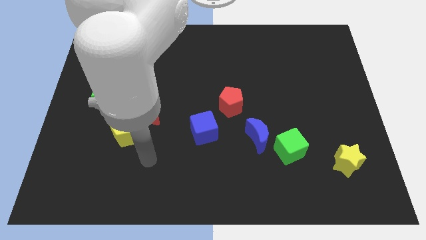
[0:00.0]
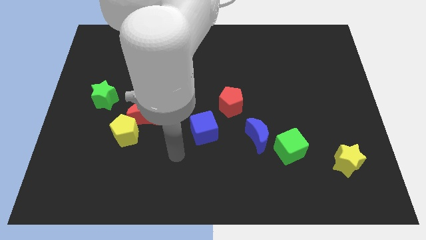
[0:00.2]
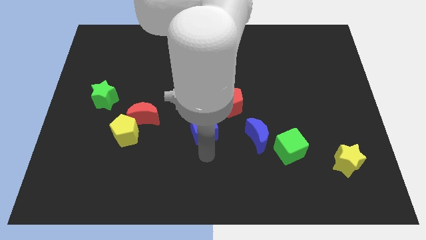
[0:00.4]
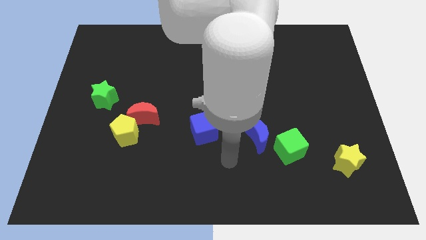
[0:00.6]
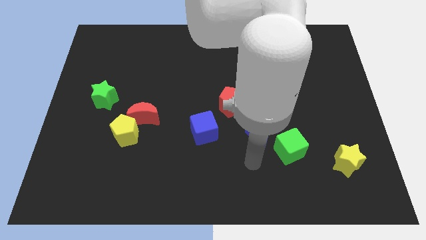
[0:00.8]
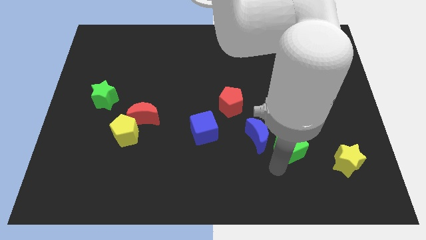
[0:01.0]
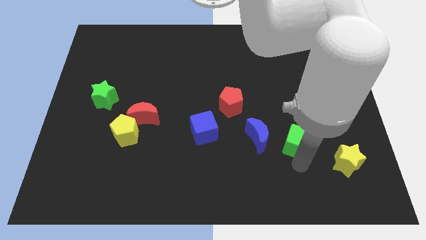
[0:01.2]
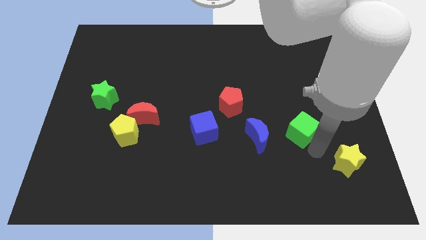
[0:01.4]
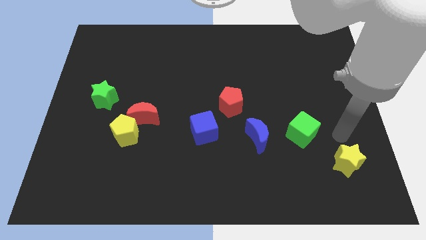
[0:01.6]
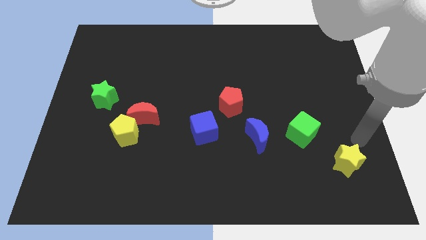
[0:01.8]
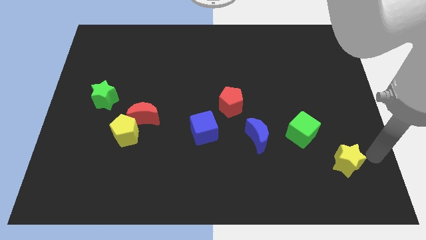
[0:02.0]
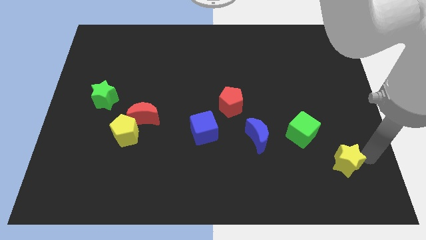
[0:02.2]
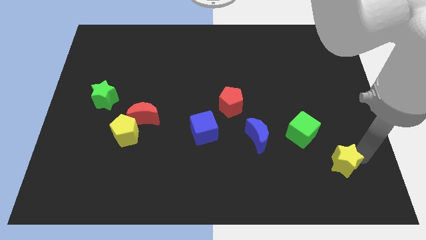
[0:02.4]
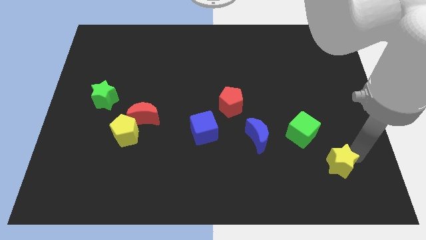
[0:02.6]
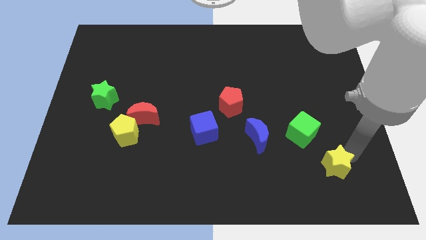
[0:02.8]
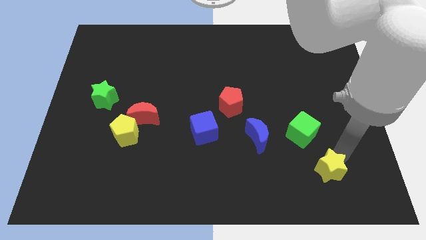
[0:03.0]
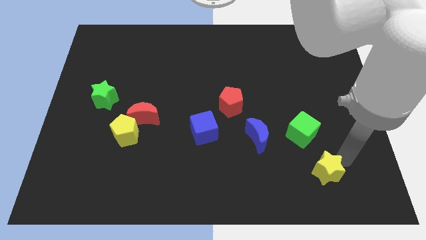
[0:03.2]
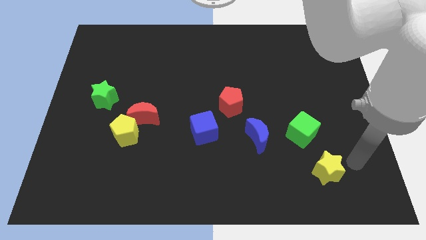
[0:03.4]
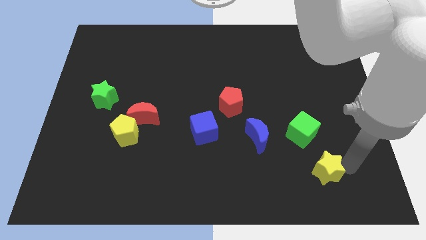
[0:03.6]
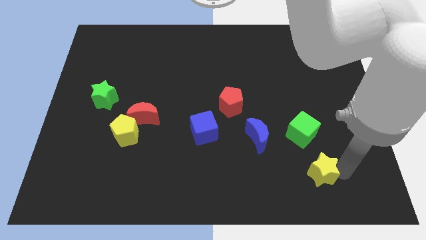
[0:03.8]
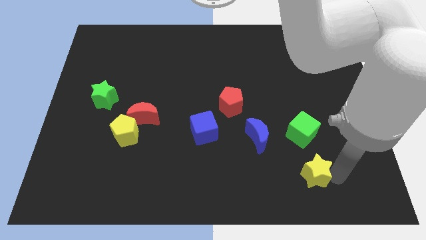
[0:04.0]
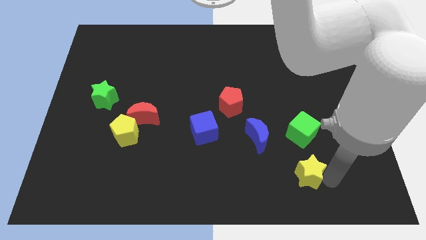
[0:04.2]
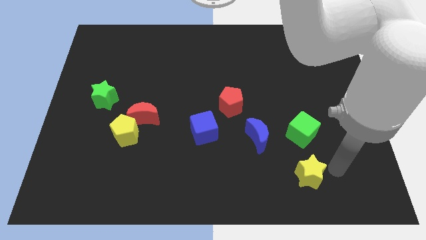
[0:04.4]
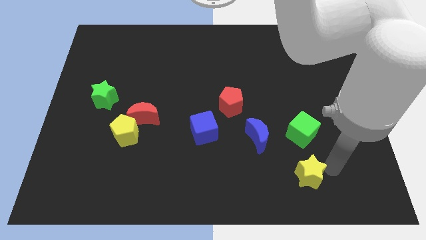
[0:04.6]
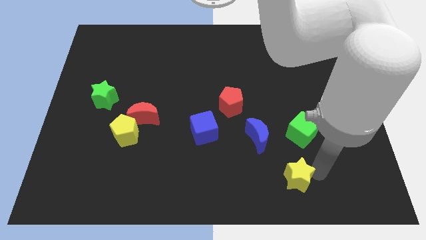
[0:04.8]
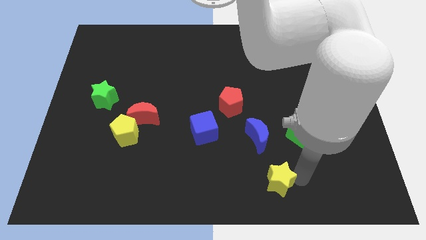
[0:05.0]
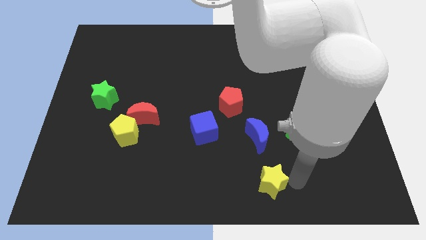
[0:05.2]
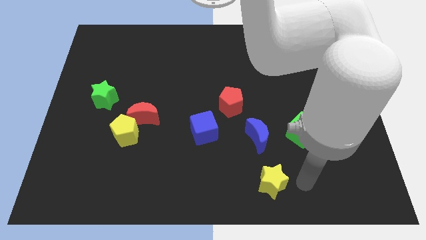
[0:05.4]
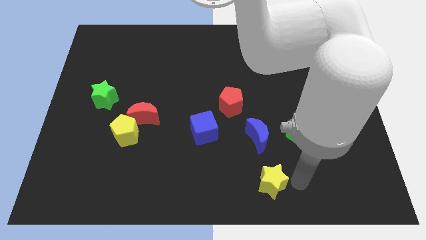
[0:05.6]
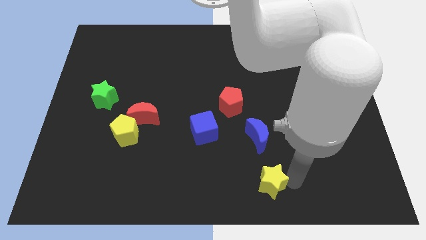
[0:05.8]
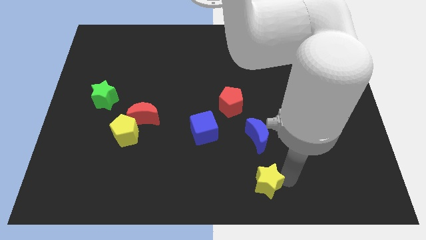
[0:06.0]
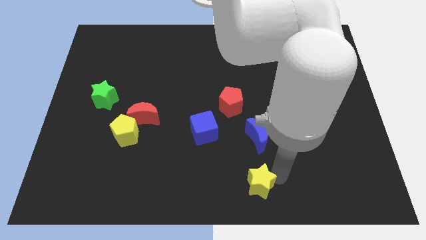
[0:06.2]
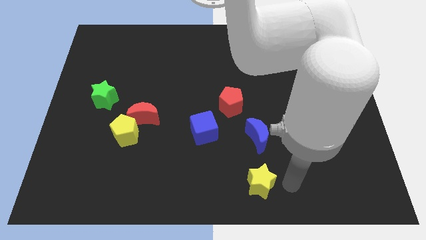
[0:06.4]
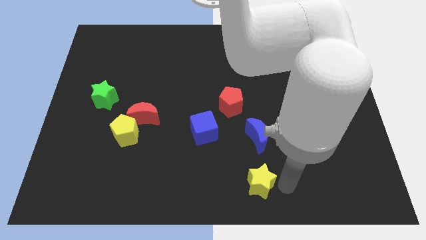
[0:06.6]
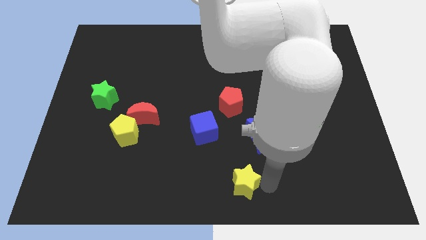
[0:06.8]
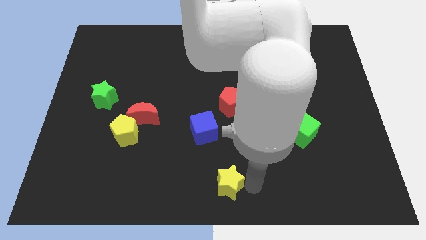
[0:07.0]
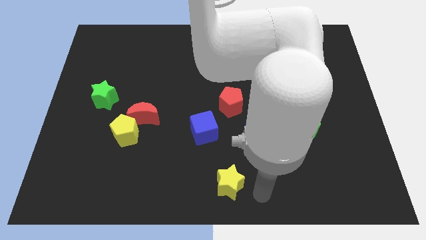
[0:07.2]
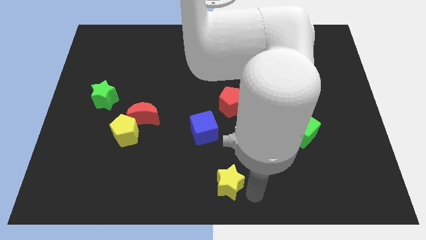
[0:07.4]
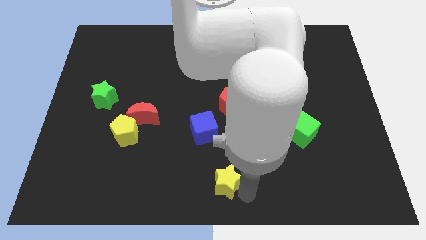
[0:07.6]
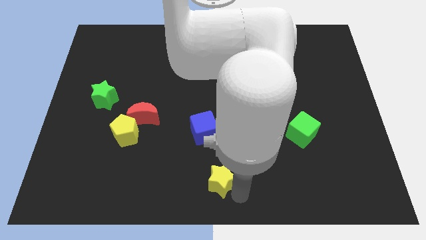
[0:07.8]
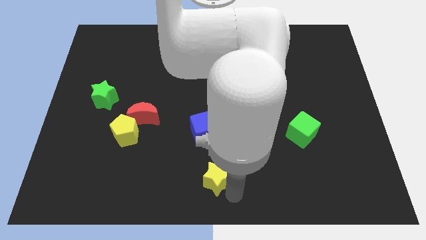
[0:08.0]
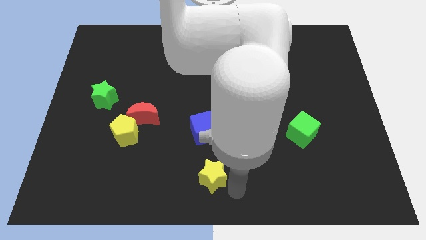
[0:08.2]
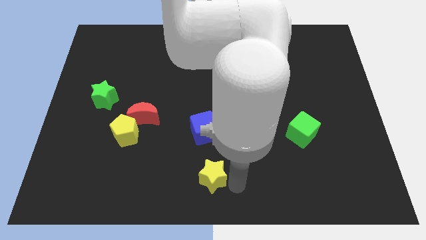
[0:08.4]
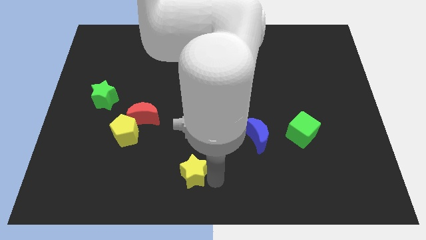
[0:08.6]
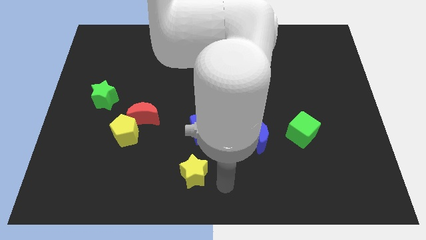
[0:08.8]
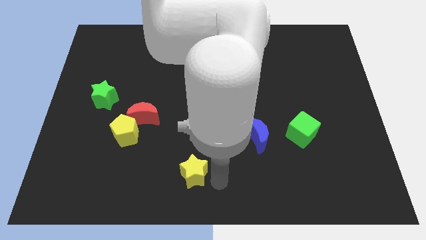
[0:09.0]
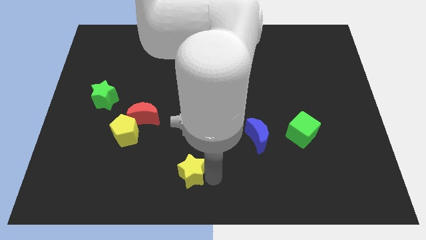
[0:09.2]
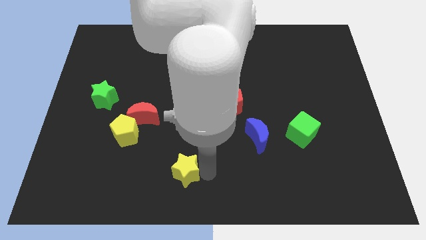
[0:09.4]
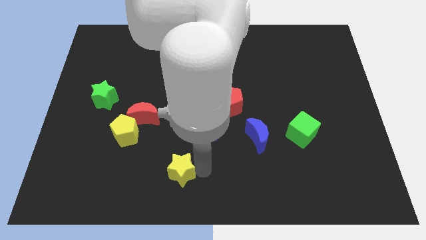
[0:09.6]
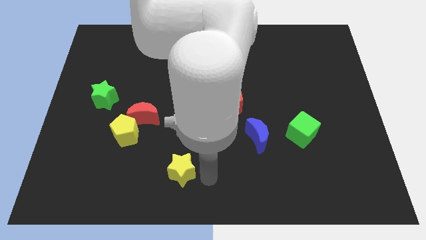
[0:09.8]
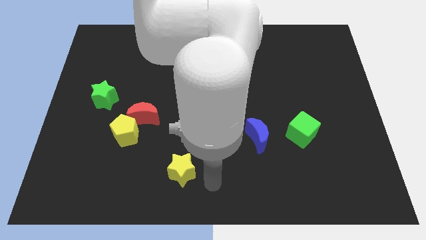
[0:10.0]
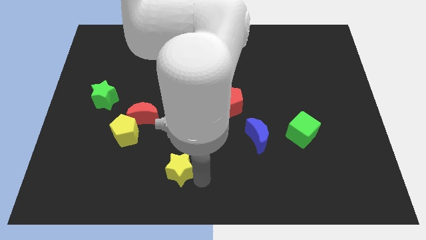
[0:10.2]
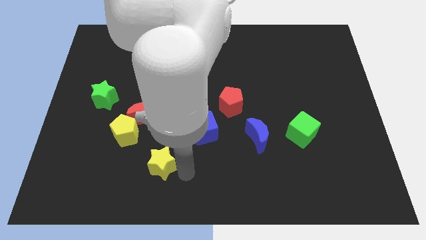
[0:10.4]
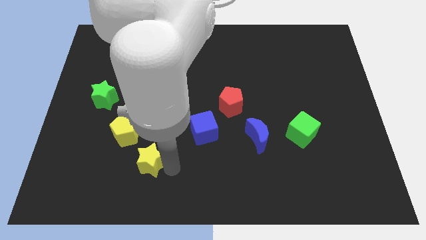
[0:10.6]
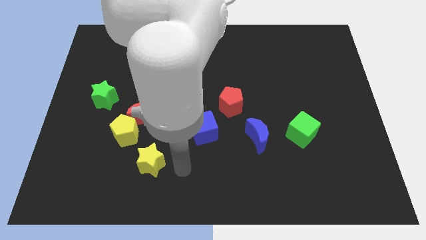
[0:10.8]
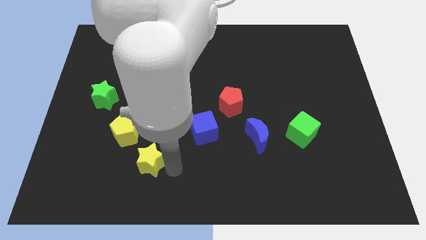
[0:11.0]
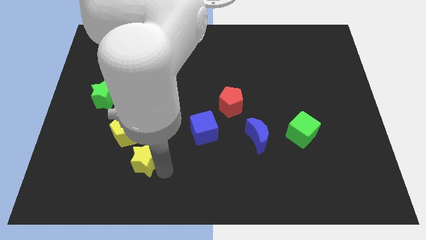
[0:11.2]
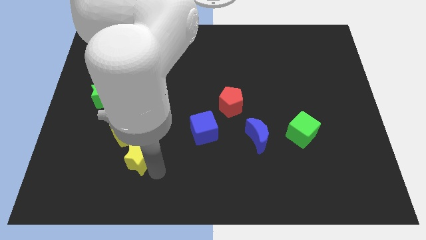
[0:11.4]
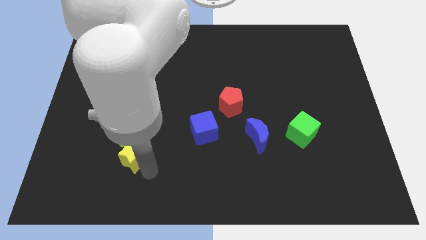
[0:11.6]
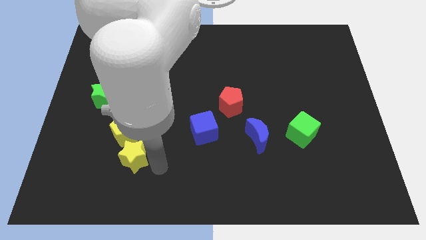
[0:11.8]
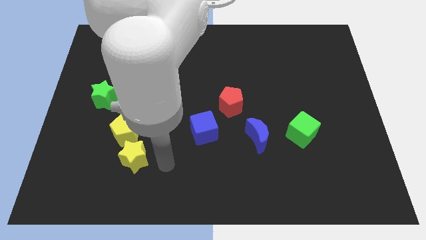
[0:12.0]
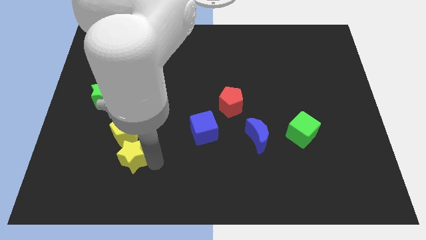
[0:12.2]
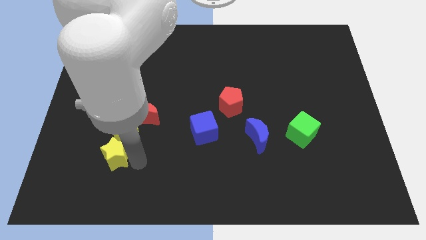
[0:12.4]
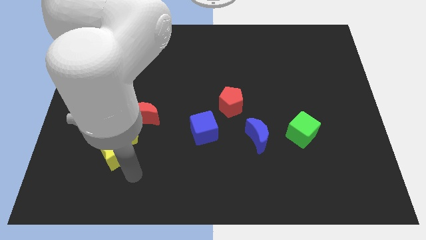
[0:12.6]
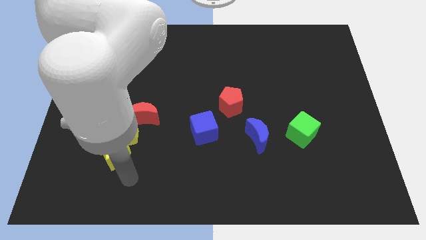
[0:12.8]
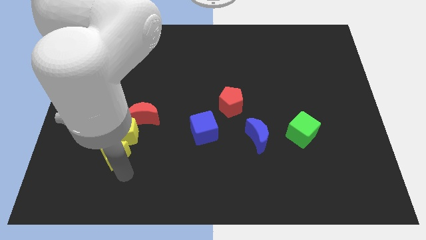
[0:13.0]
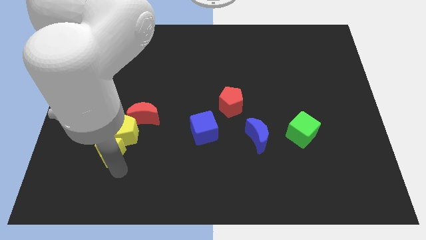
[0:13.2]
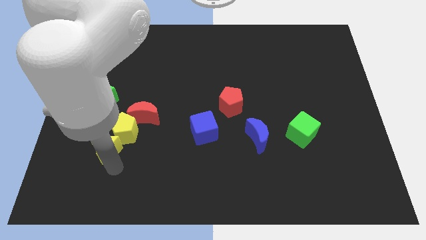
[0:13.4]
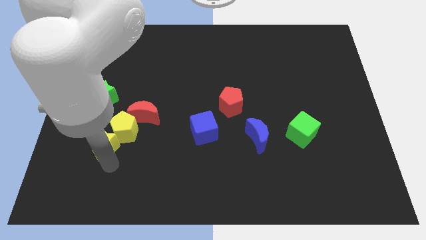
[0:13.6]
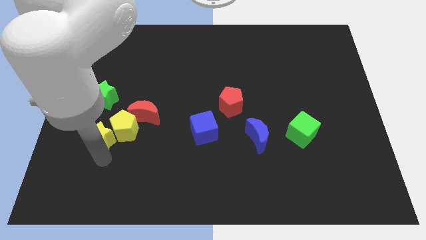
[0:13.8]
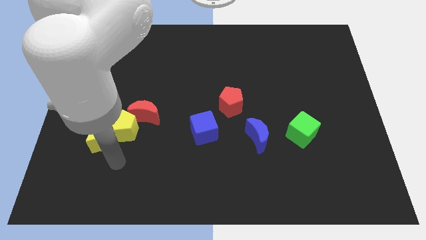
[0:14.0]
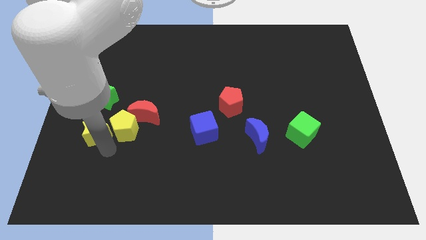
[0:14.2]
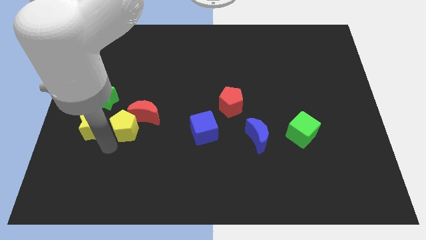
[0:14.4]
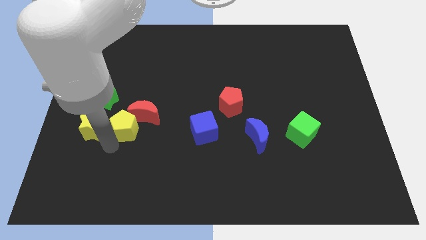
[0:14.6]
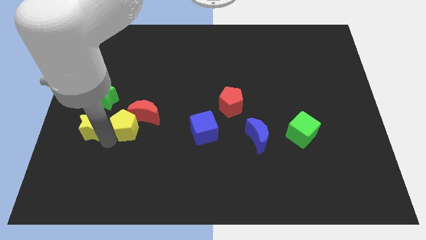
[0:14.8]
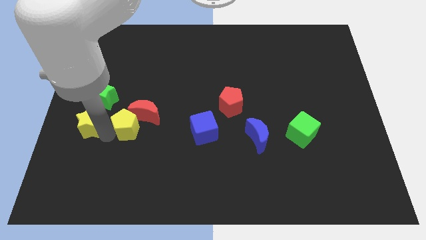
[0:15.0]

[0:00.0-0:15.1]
move the yellow star to the center left
